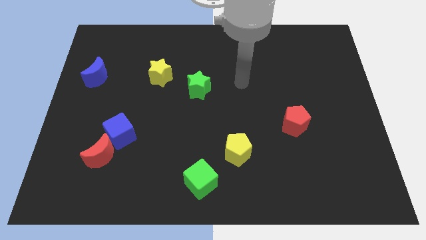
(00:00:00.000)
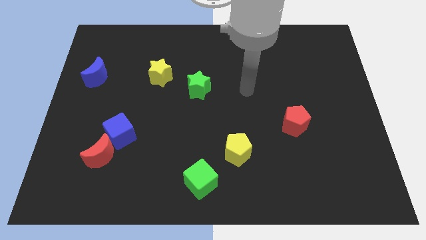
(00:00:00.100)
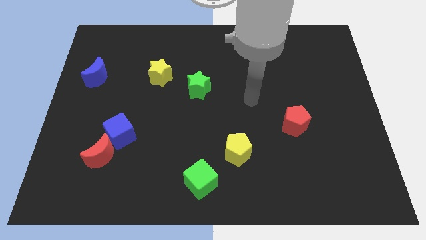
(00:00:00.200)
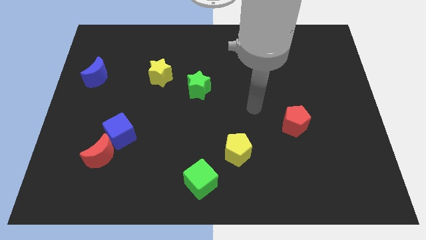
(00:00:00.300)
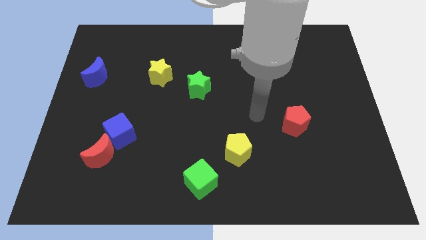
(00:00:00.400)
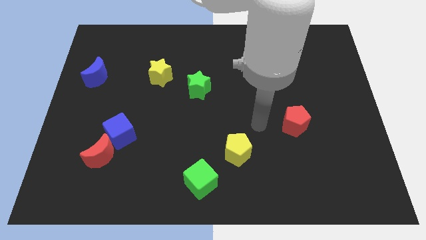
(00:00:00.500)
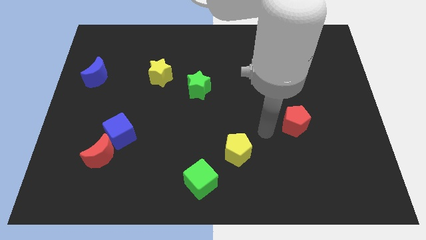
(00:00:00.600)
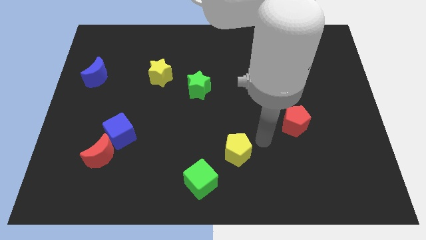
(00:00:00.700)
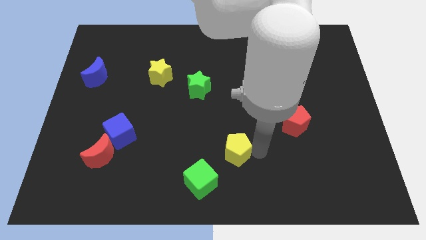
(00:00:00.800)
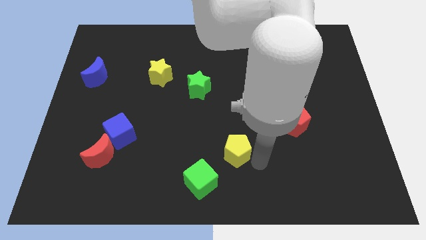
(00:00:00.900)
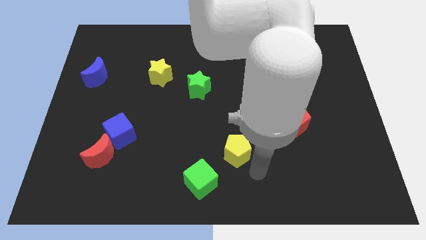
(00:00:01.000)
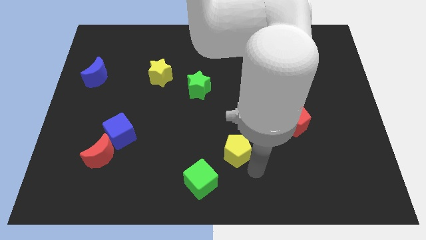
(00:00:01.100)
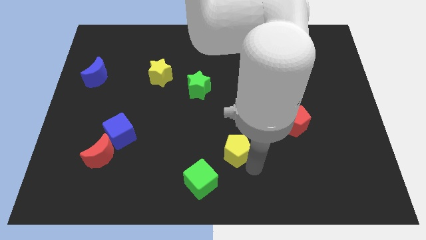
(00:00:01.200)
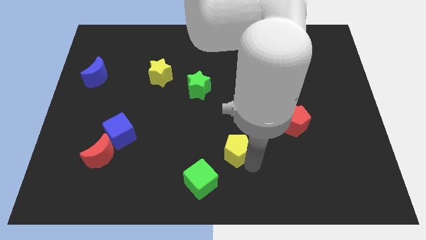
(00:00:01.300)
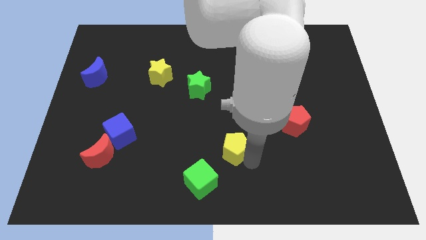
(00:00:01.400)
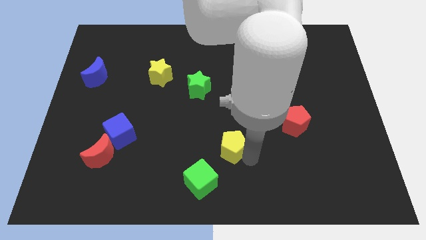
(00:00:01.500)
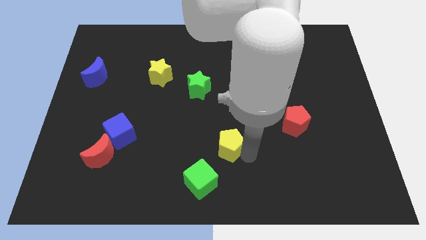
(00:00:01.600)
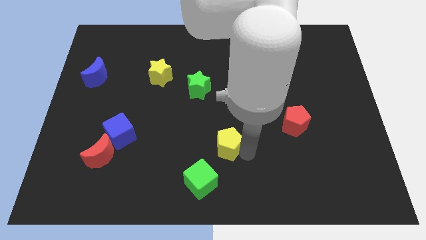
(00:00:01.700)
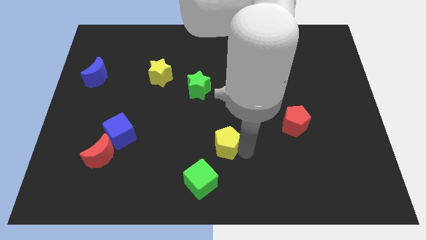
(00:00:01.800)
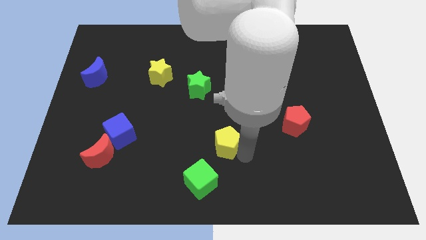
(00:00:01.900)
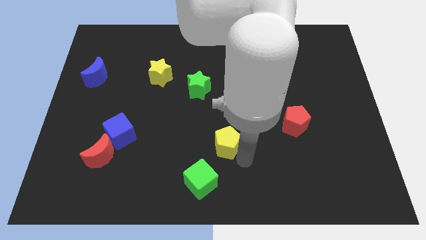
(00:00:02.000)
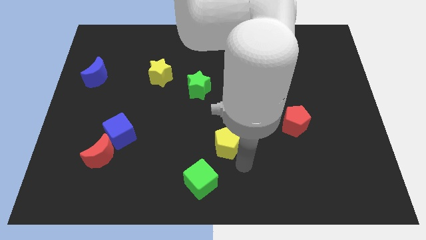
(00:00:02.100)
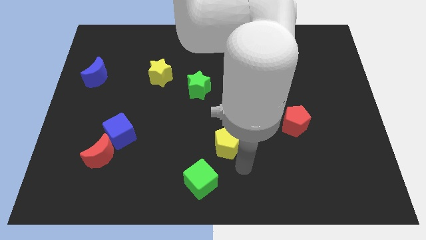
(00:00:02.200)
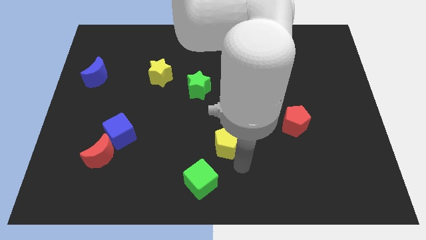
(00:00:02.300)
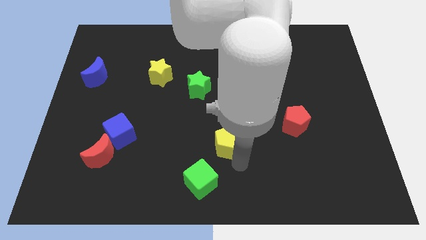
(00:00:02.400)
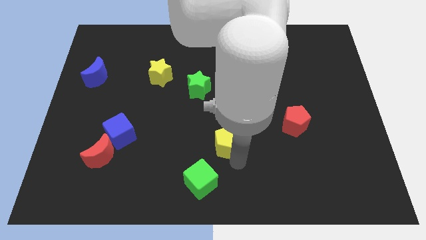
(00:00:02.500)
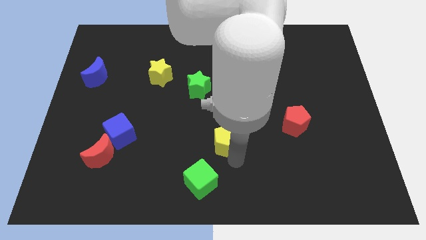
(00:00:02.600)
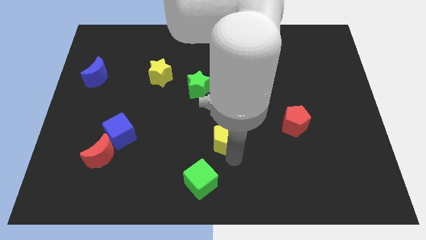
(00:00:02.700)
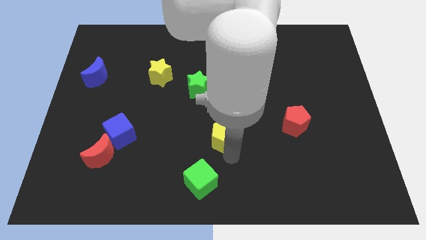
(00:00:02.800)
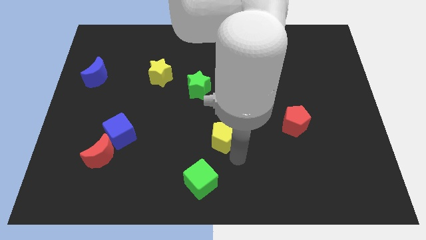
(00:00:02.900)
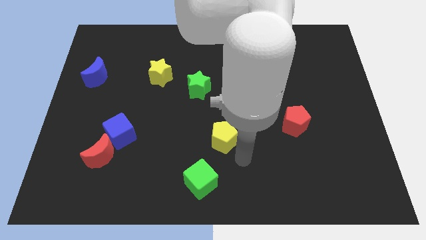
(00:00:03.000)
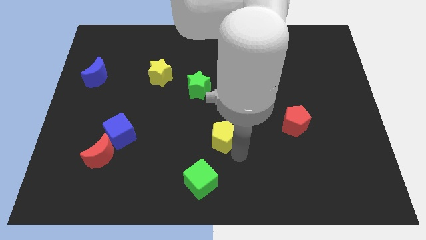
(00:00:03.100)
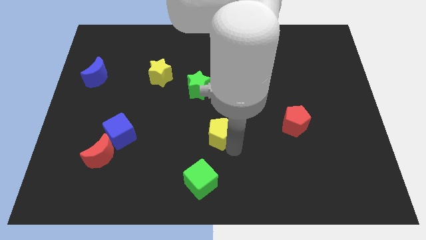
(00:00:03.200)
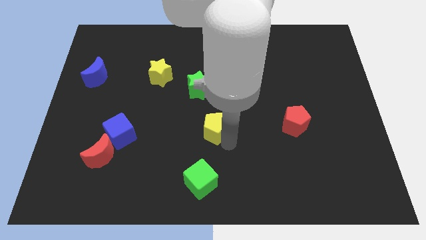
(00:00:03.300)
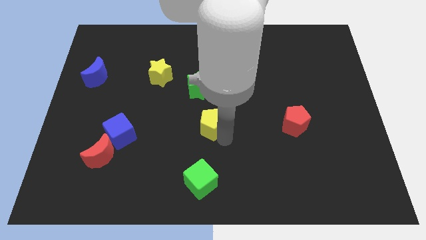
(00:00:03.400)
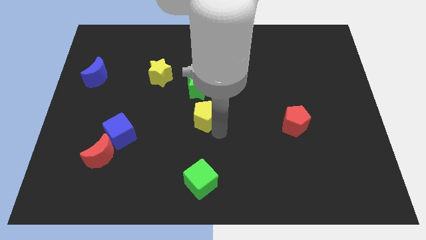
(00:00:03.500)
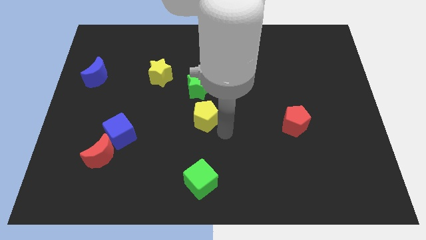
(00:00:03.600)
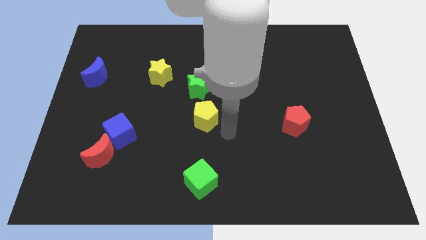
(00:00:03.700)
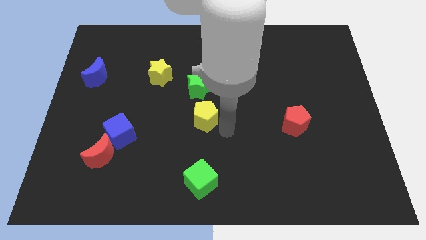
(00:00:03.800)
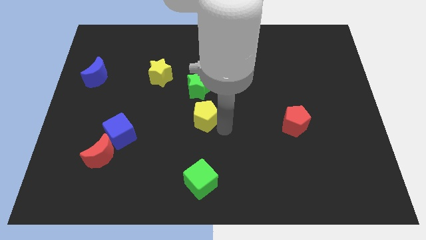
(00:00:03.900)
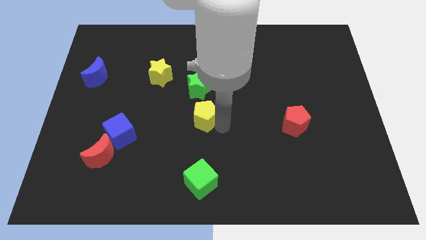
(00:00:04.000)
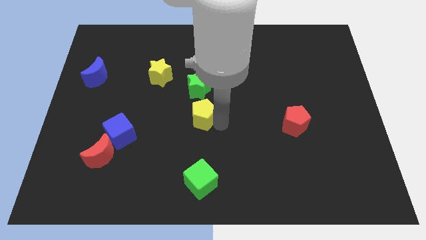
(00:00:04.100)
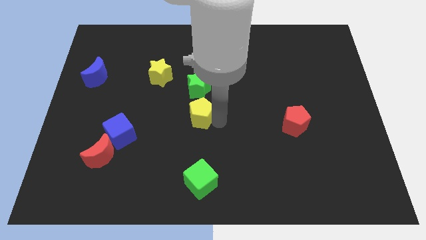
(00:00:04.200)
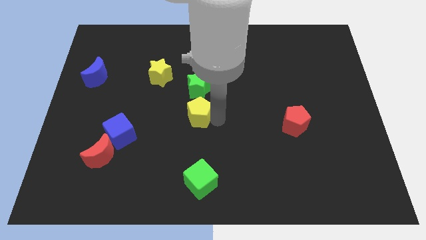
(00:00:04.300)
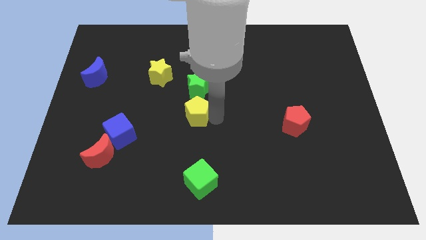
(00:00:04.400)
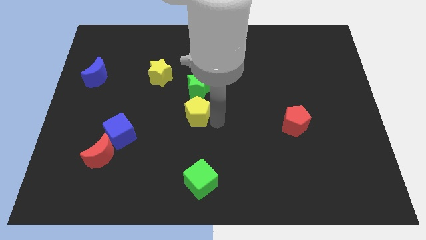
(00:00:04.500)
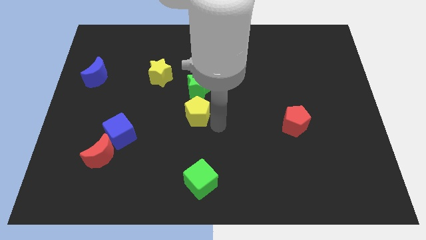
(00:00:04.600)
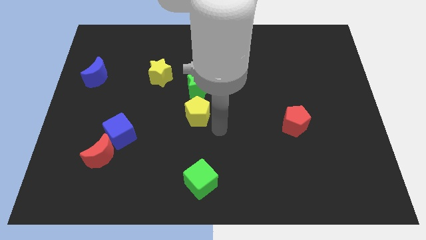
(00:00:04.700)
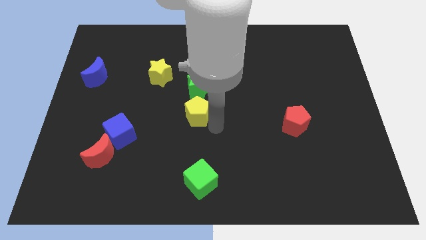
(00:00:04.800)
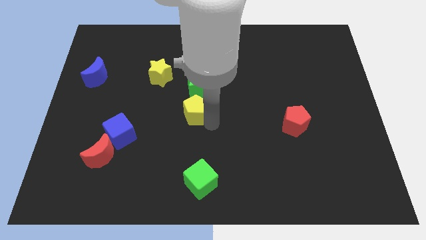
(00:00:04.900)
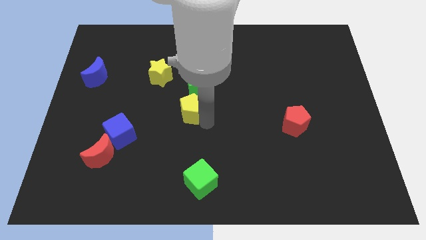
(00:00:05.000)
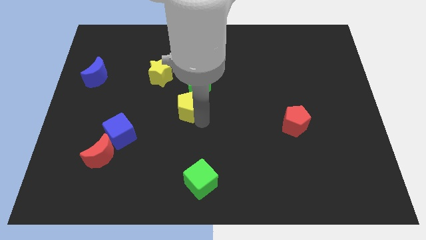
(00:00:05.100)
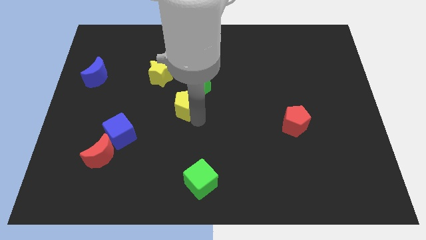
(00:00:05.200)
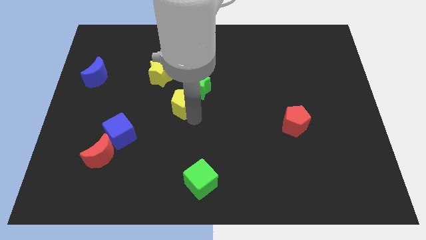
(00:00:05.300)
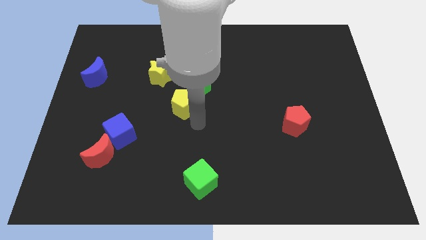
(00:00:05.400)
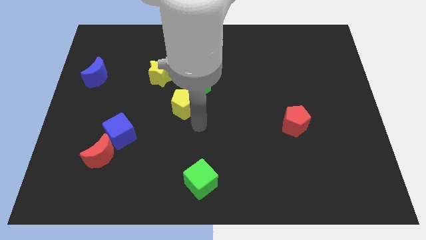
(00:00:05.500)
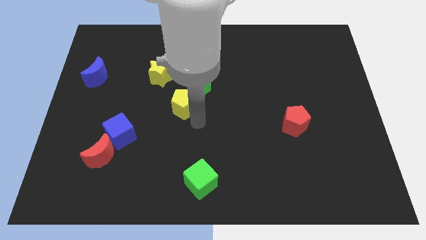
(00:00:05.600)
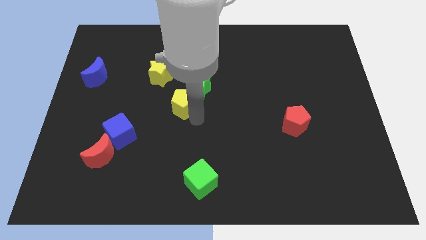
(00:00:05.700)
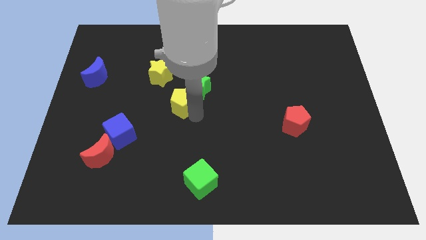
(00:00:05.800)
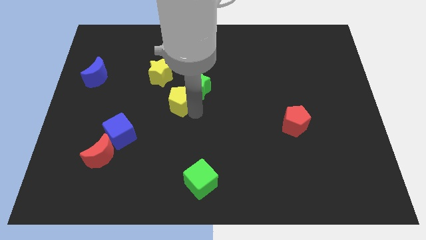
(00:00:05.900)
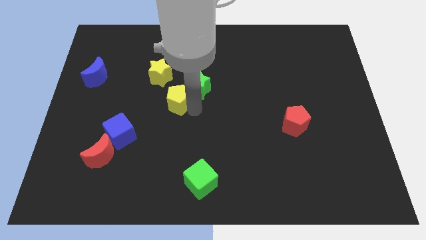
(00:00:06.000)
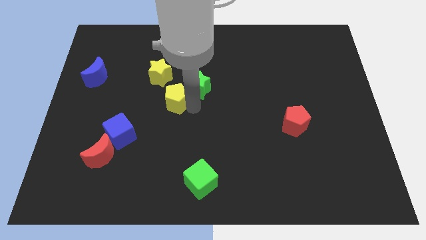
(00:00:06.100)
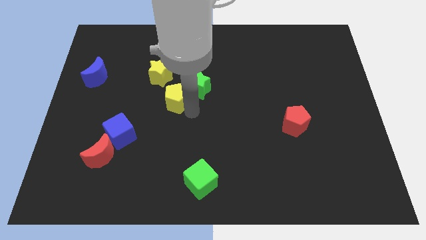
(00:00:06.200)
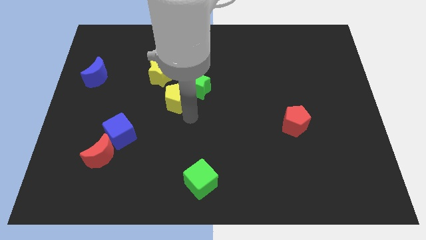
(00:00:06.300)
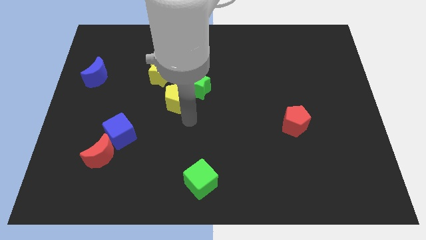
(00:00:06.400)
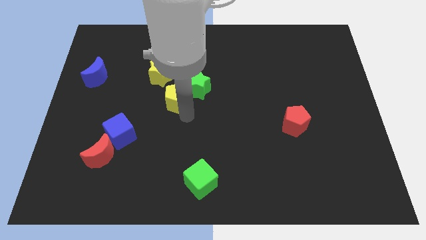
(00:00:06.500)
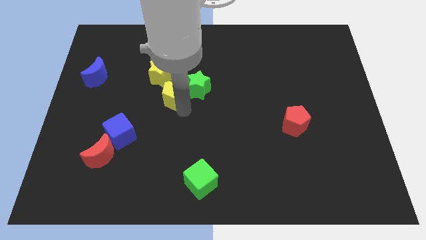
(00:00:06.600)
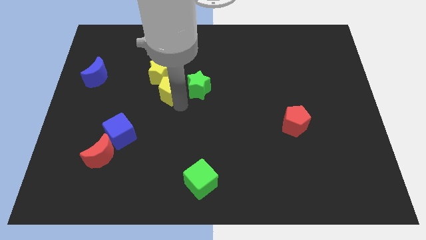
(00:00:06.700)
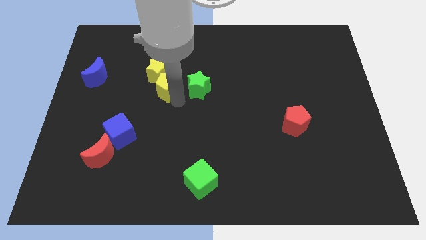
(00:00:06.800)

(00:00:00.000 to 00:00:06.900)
move the yellow pentagon close to the yellow star
